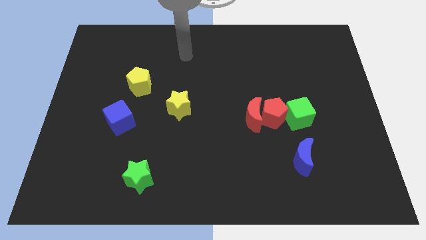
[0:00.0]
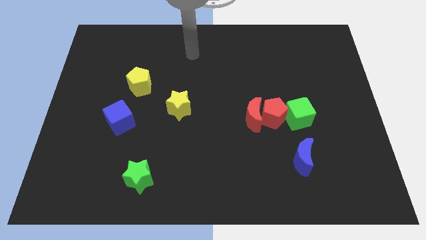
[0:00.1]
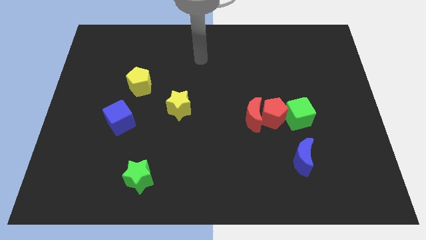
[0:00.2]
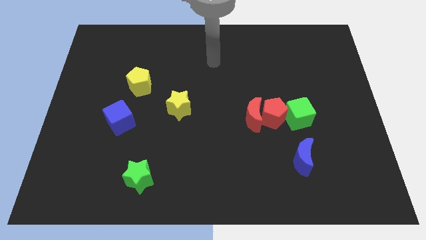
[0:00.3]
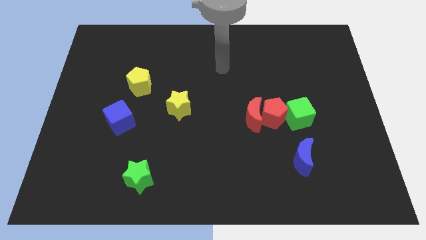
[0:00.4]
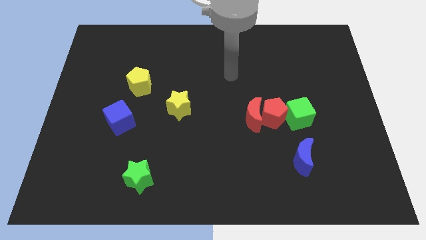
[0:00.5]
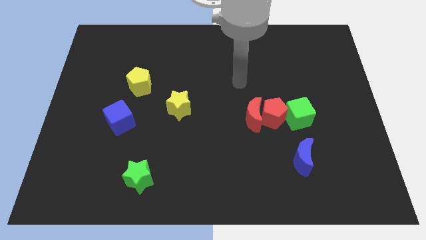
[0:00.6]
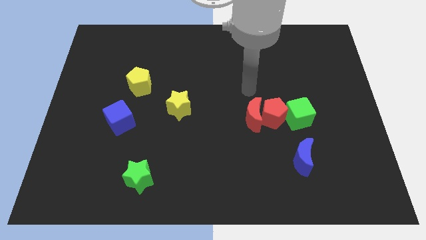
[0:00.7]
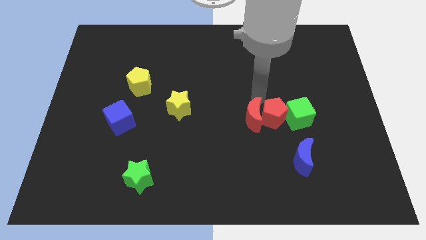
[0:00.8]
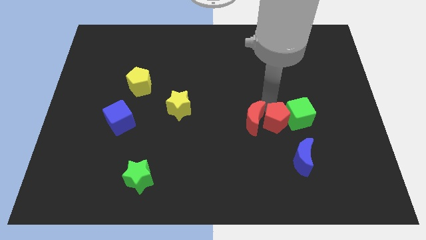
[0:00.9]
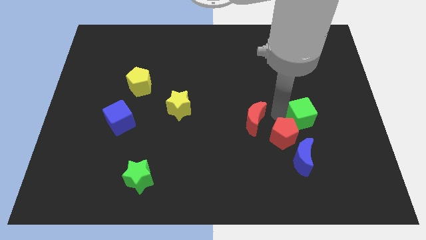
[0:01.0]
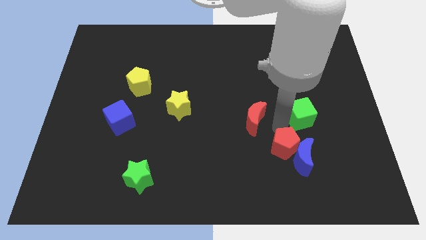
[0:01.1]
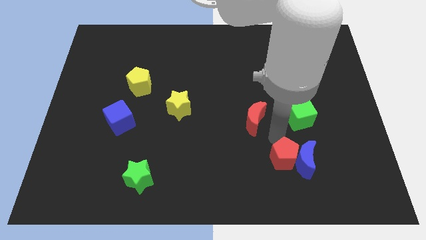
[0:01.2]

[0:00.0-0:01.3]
separate the red moon from the red pentagon

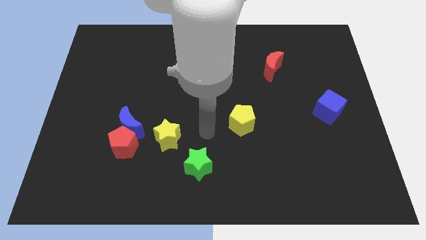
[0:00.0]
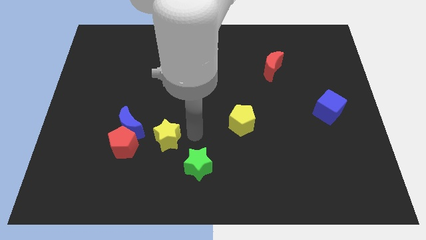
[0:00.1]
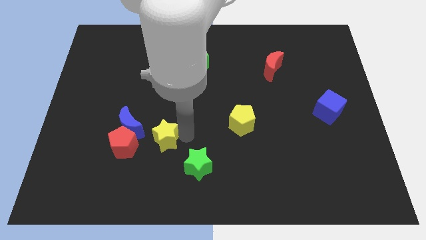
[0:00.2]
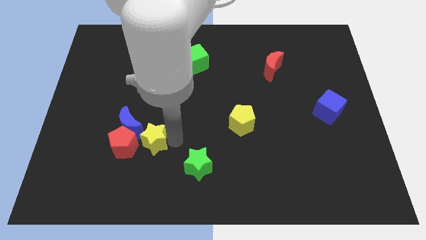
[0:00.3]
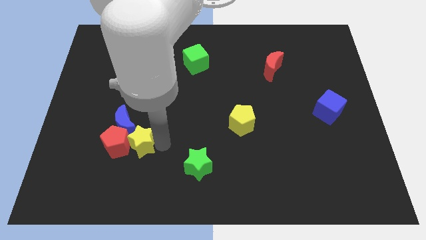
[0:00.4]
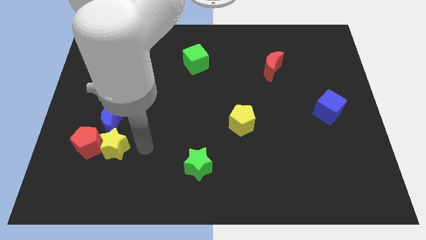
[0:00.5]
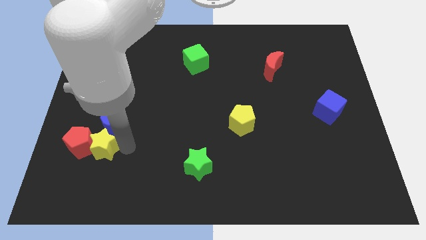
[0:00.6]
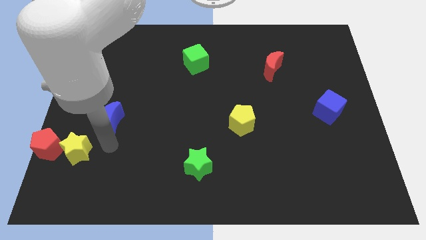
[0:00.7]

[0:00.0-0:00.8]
pull the blue moon apart from the red pentagon and yellow star

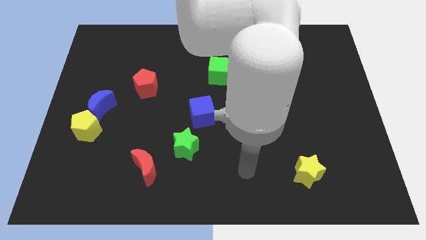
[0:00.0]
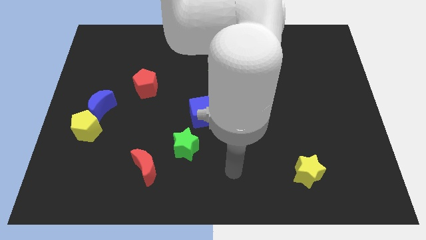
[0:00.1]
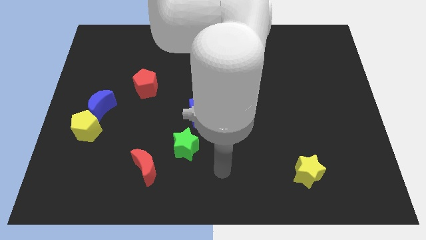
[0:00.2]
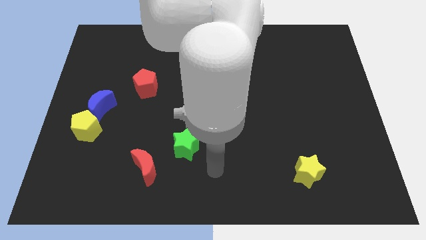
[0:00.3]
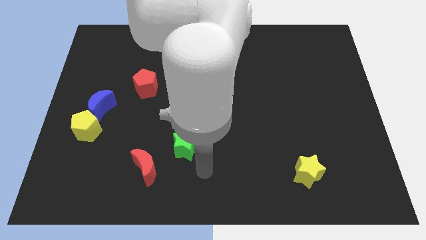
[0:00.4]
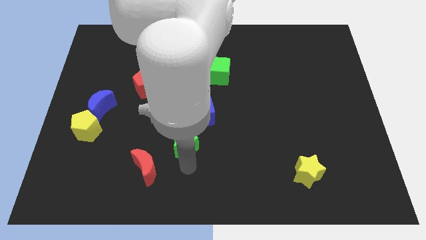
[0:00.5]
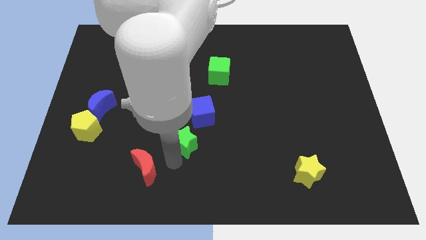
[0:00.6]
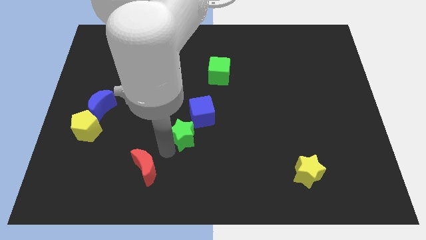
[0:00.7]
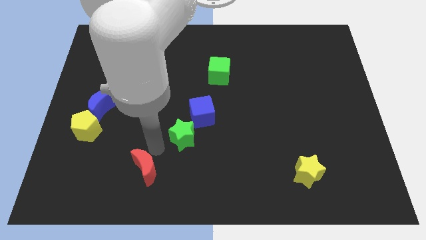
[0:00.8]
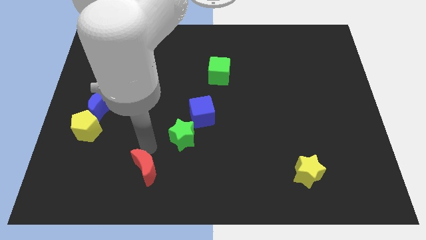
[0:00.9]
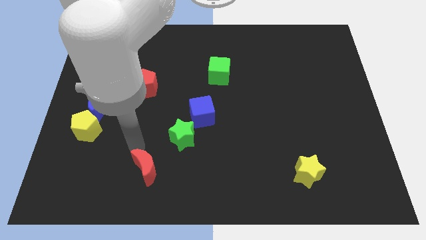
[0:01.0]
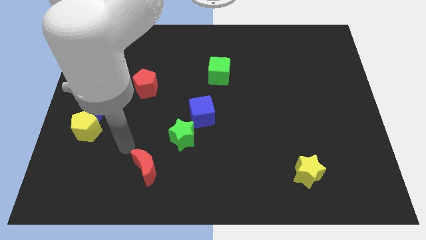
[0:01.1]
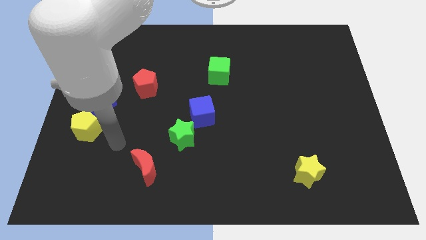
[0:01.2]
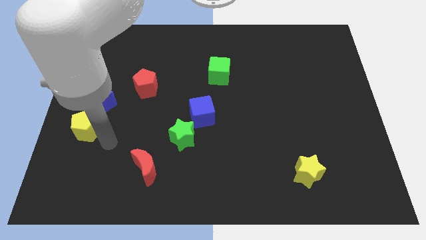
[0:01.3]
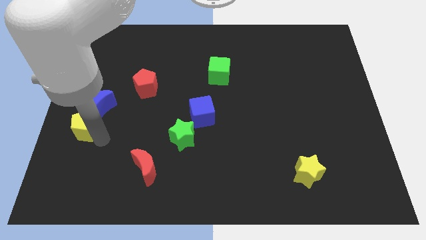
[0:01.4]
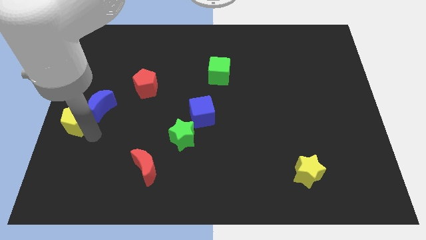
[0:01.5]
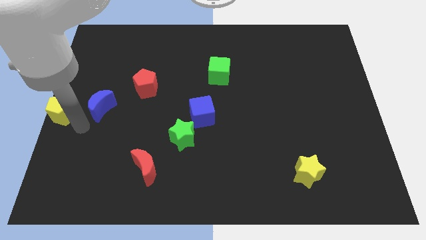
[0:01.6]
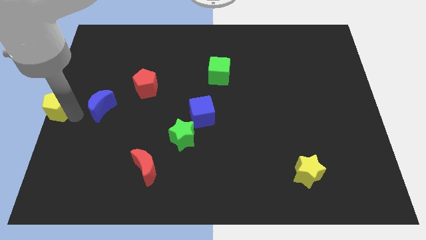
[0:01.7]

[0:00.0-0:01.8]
separate the blue moon from the yellow pentagon

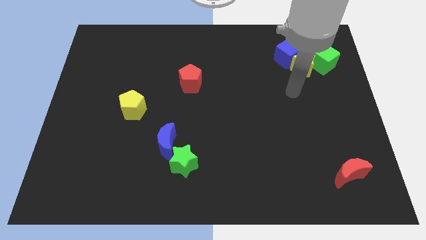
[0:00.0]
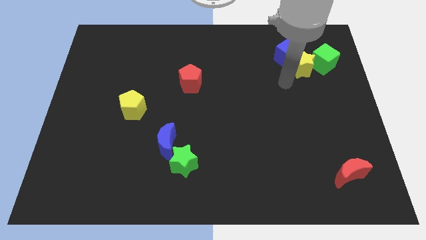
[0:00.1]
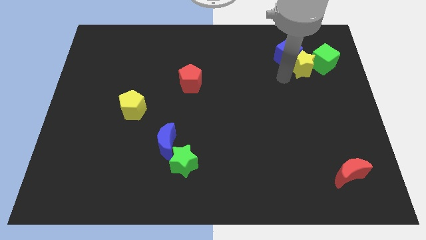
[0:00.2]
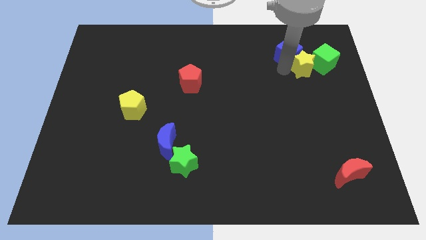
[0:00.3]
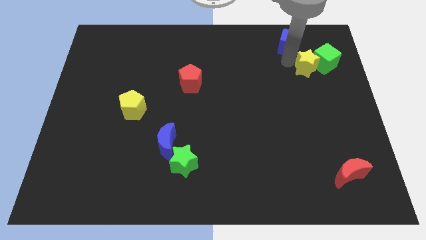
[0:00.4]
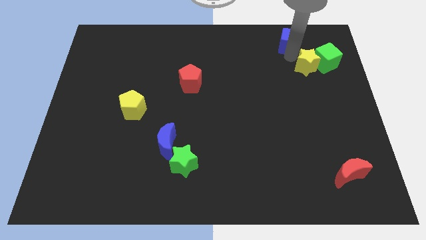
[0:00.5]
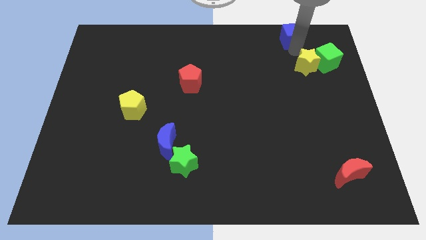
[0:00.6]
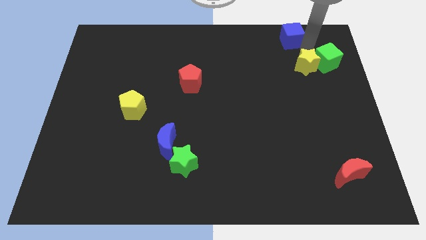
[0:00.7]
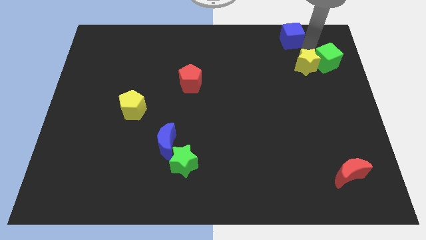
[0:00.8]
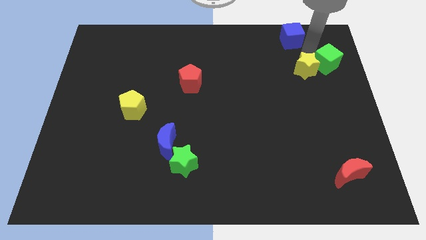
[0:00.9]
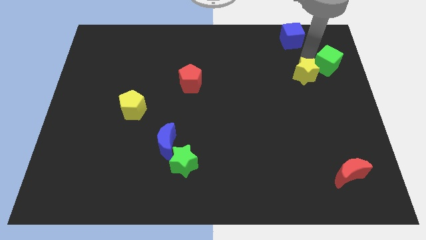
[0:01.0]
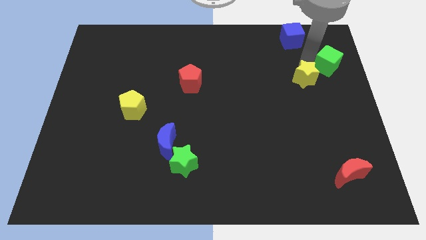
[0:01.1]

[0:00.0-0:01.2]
separate the yellow star from the blue cube and green cube

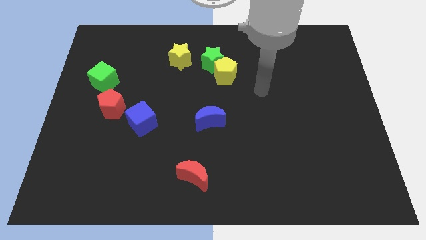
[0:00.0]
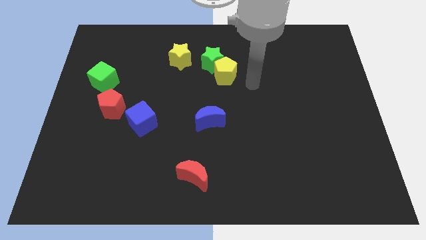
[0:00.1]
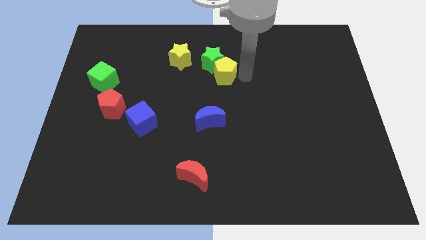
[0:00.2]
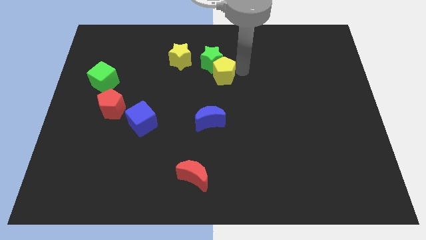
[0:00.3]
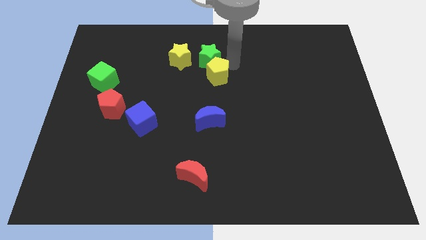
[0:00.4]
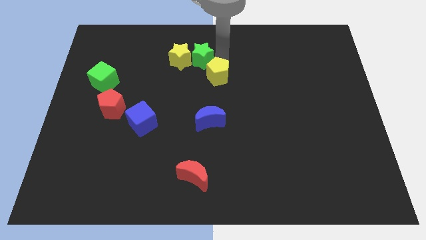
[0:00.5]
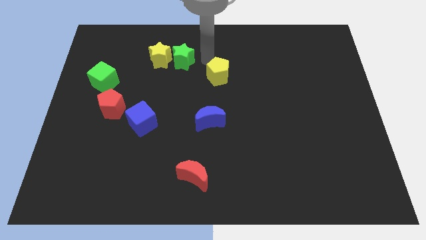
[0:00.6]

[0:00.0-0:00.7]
move the yellow pentagon away from the green star

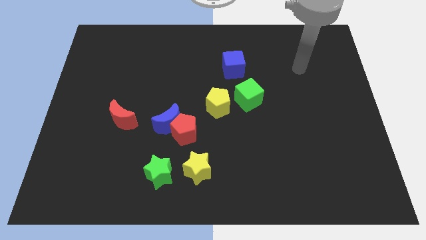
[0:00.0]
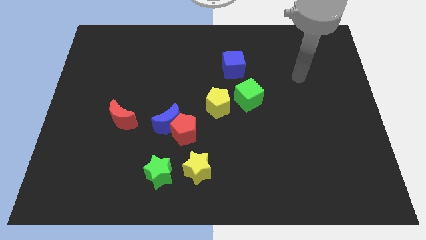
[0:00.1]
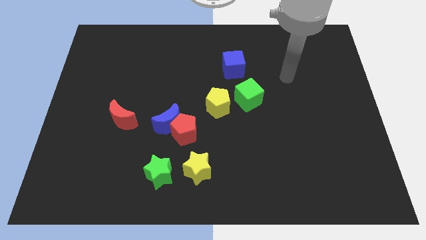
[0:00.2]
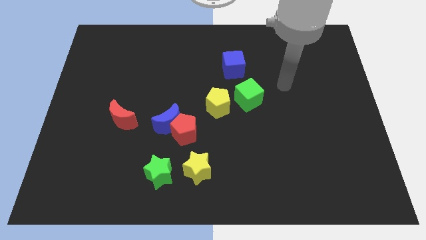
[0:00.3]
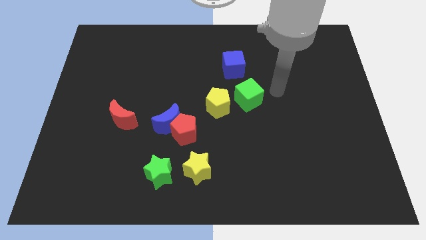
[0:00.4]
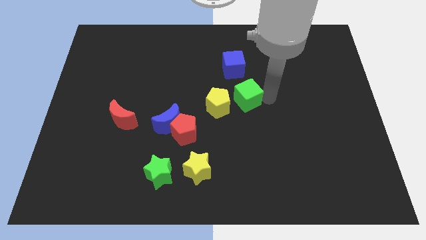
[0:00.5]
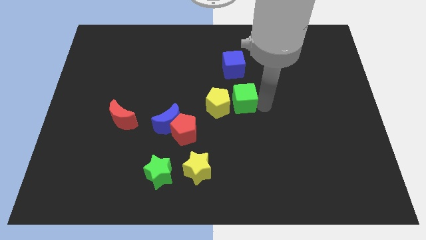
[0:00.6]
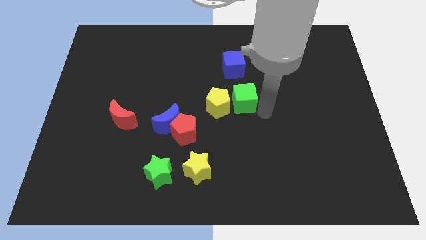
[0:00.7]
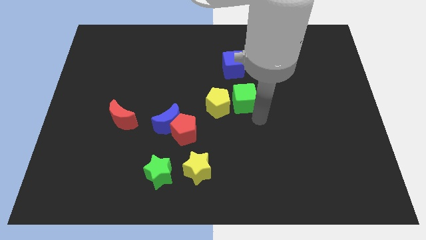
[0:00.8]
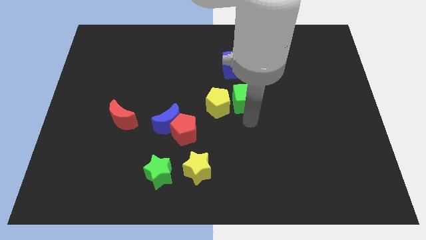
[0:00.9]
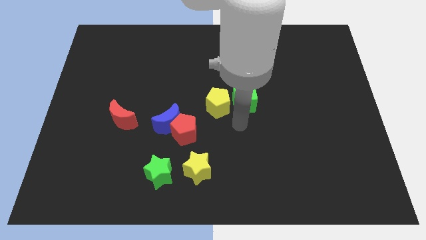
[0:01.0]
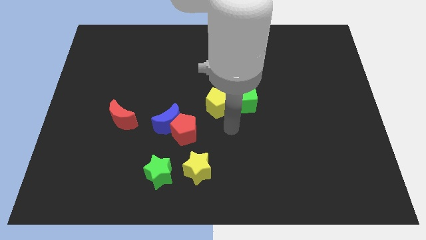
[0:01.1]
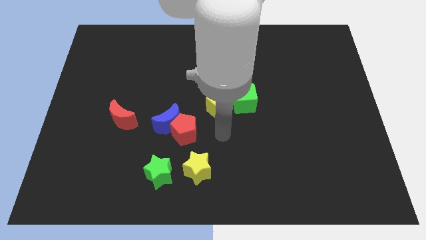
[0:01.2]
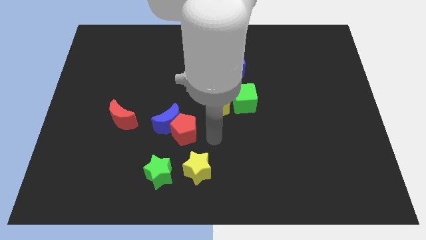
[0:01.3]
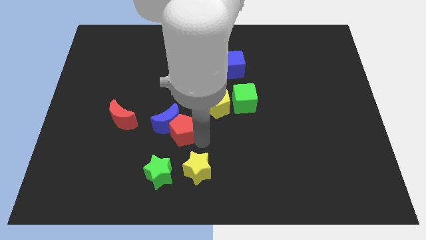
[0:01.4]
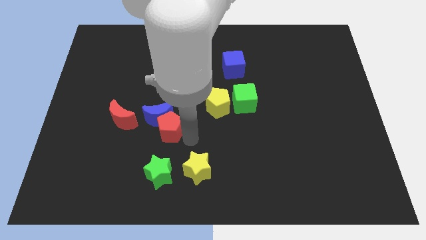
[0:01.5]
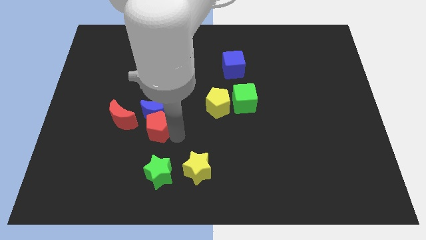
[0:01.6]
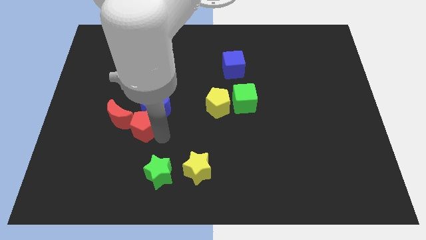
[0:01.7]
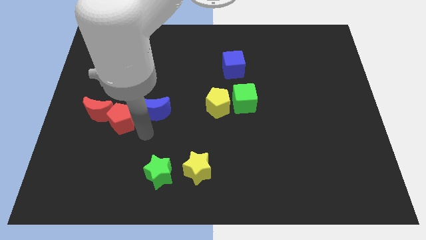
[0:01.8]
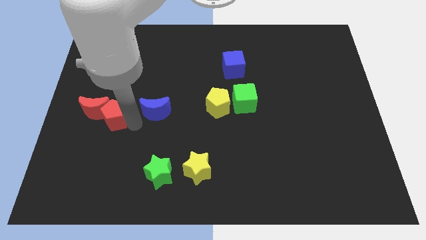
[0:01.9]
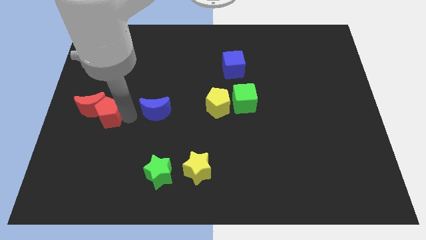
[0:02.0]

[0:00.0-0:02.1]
move the blue moon away from the red pentagon

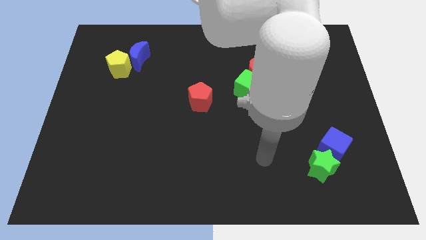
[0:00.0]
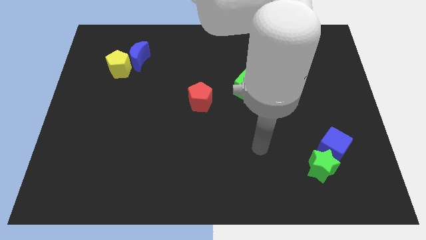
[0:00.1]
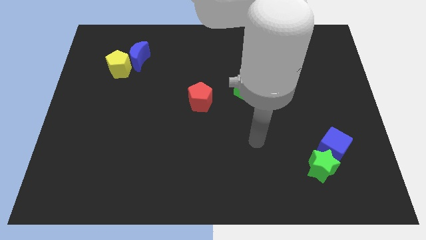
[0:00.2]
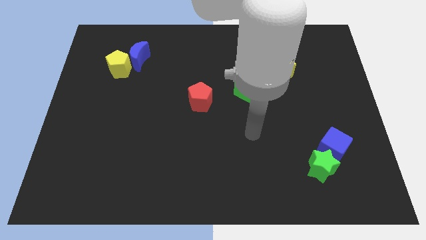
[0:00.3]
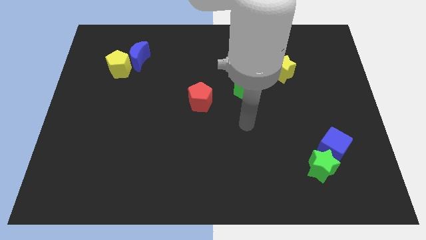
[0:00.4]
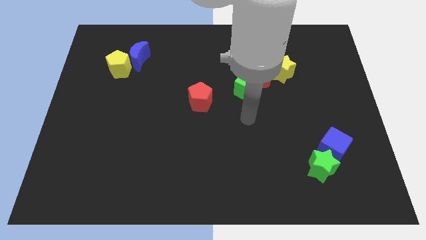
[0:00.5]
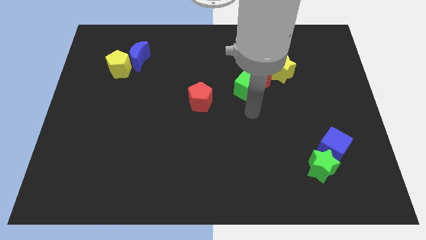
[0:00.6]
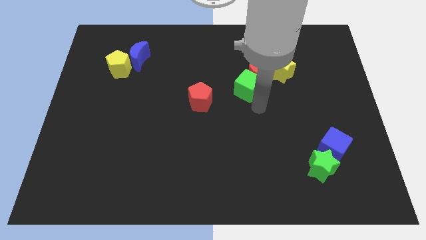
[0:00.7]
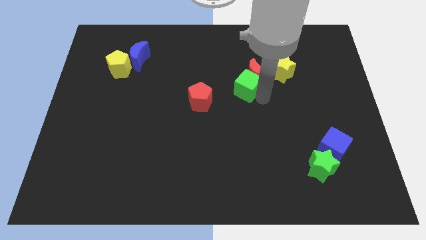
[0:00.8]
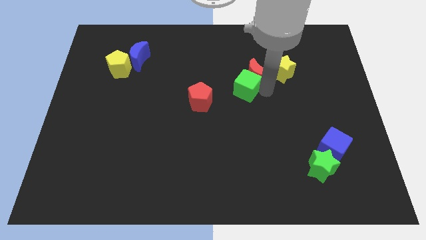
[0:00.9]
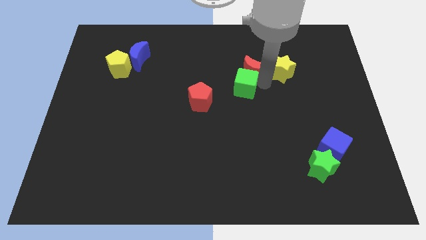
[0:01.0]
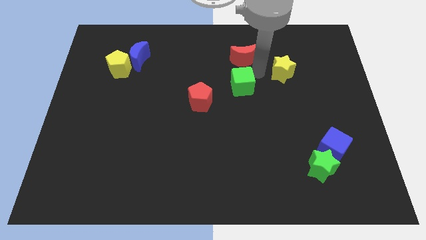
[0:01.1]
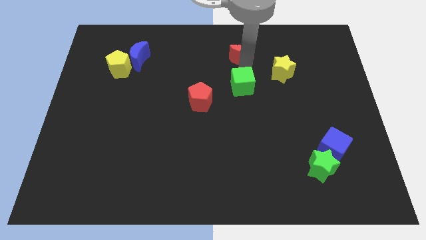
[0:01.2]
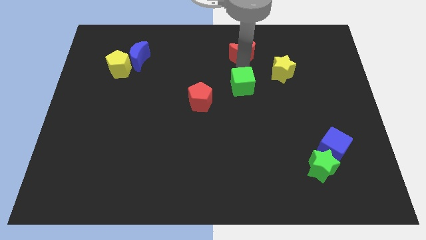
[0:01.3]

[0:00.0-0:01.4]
separate the green cube from the red moon

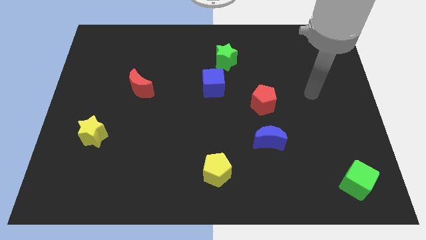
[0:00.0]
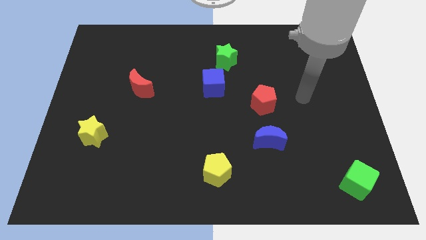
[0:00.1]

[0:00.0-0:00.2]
pull the blue cube apart from the green star
